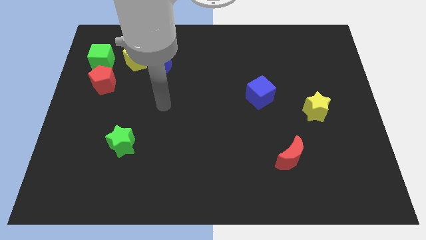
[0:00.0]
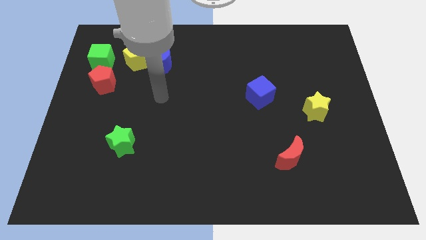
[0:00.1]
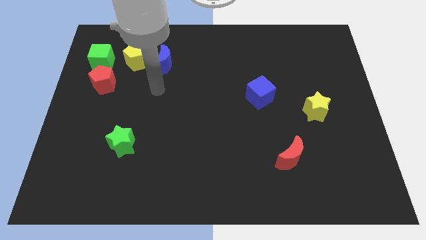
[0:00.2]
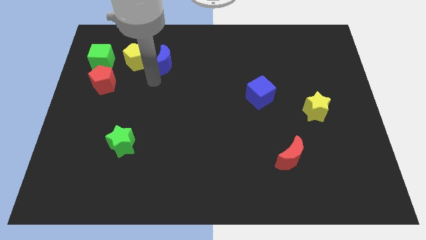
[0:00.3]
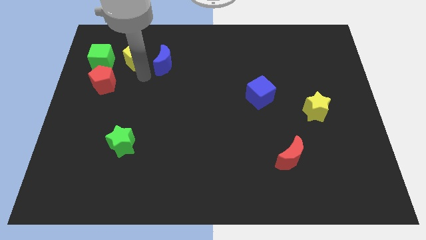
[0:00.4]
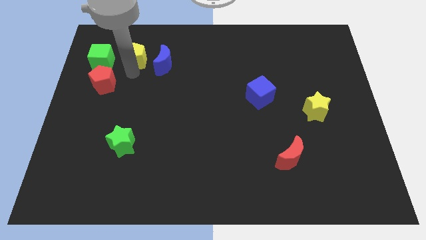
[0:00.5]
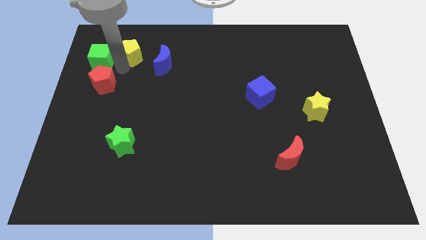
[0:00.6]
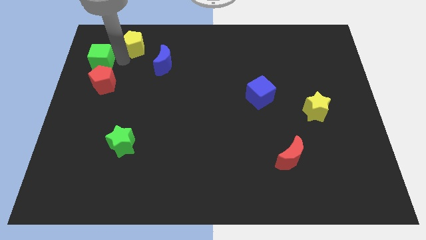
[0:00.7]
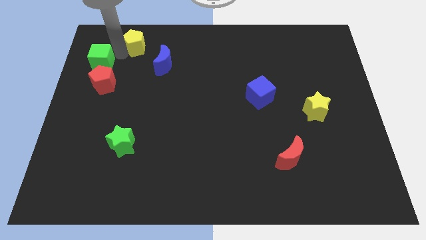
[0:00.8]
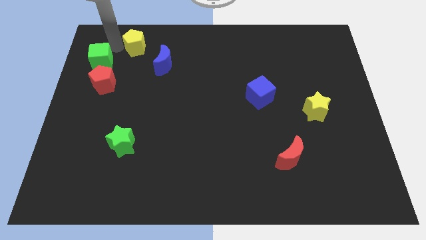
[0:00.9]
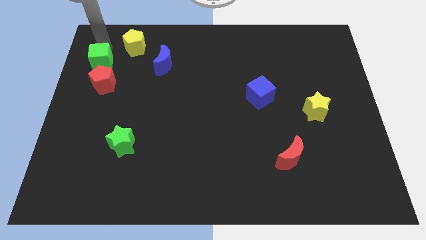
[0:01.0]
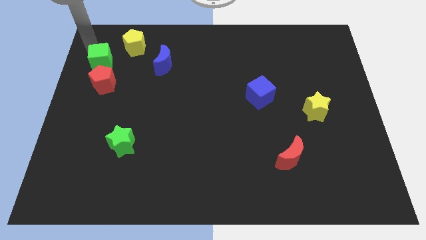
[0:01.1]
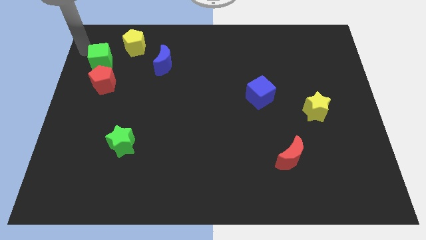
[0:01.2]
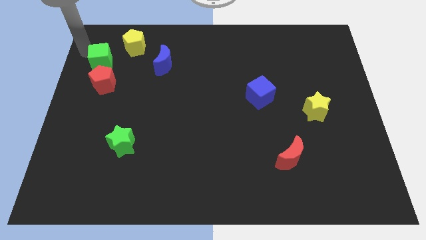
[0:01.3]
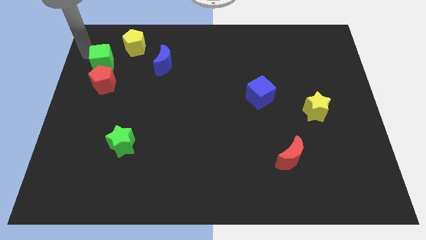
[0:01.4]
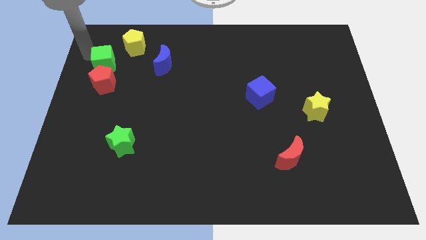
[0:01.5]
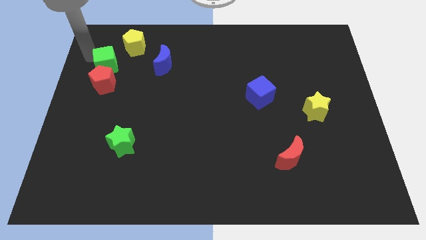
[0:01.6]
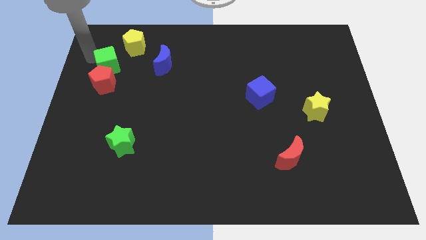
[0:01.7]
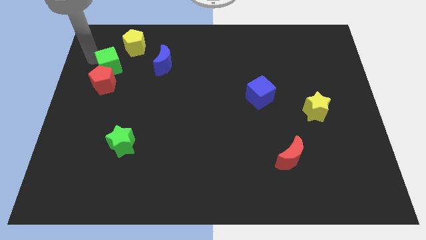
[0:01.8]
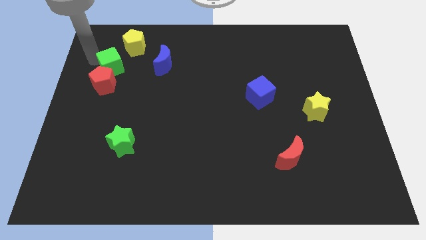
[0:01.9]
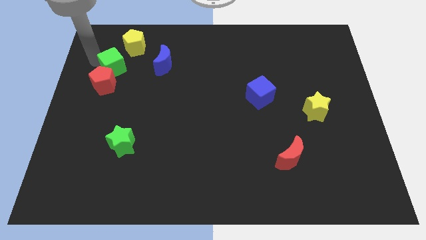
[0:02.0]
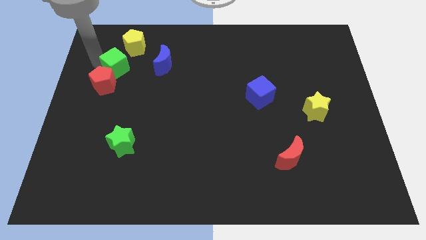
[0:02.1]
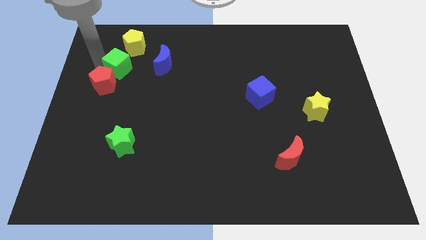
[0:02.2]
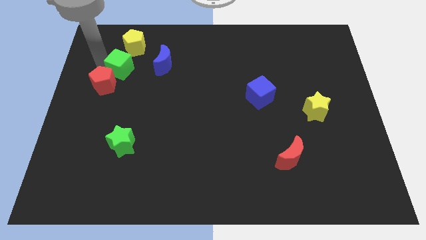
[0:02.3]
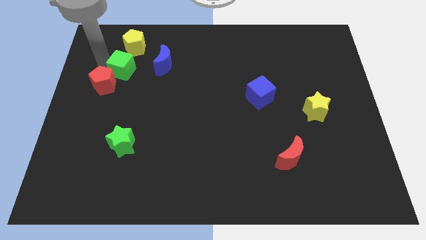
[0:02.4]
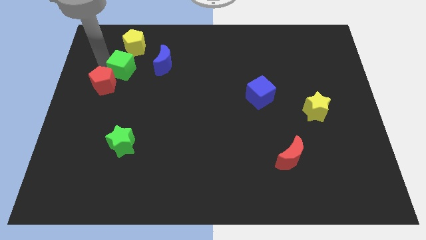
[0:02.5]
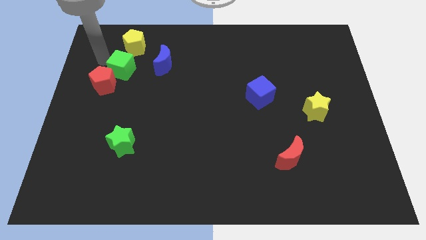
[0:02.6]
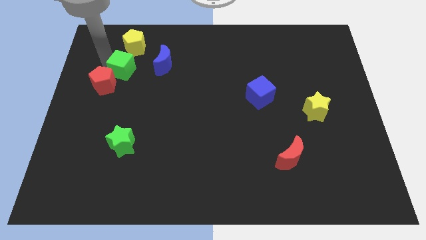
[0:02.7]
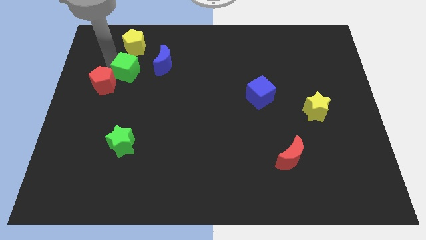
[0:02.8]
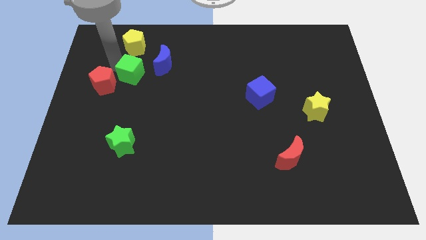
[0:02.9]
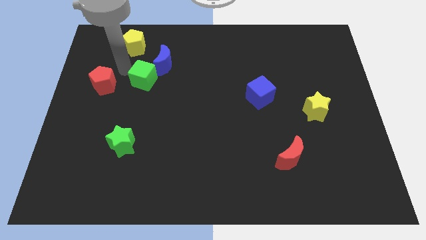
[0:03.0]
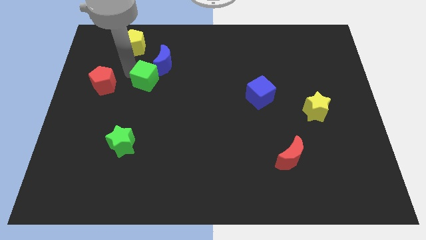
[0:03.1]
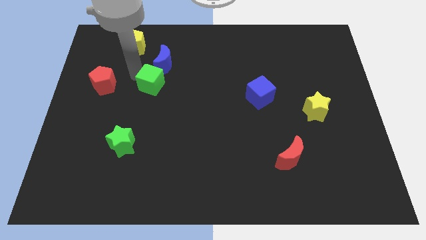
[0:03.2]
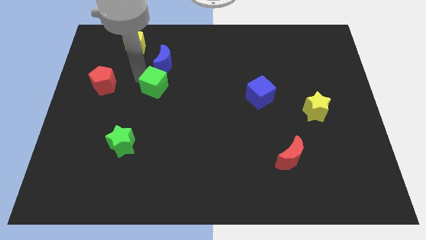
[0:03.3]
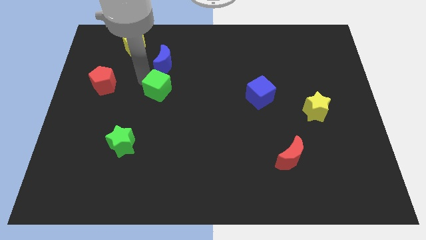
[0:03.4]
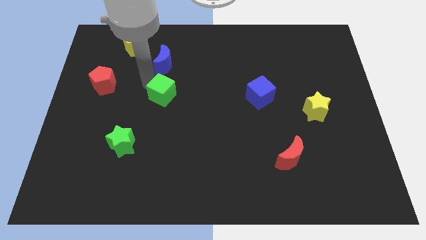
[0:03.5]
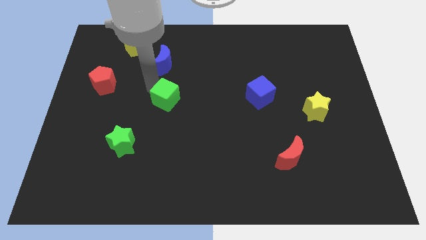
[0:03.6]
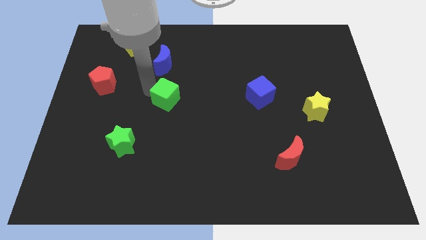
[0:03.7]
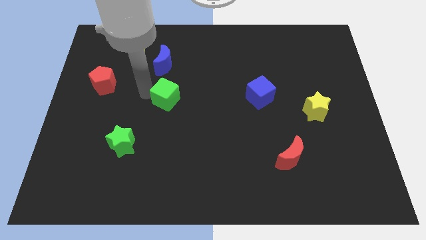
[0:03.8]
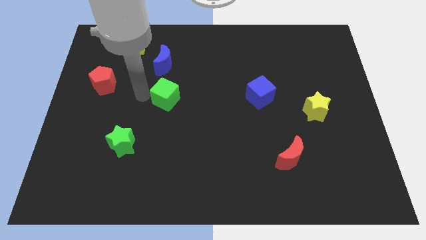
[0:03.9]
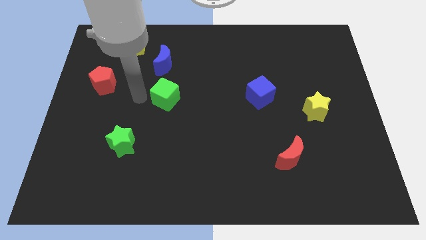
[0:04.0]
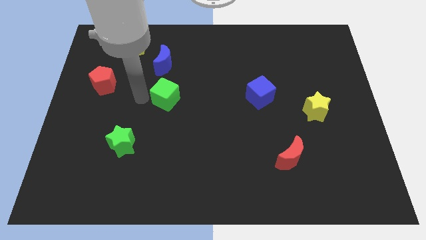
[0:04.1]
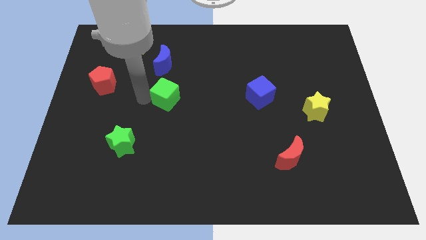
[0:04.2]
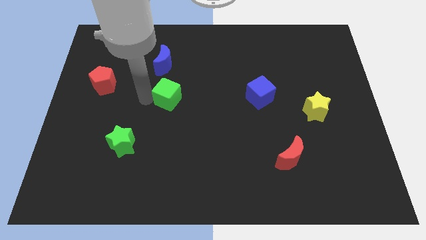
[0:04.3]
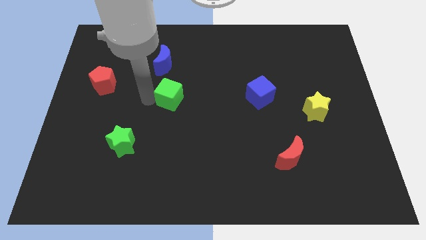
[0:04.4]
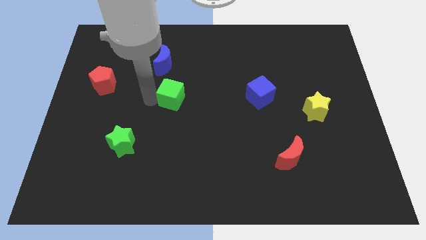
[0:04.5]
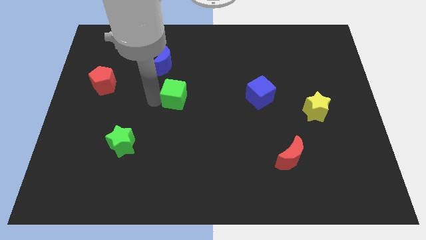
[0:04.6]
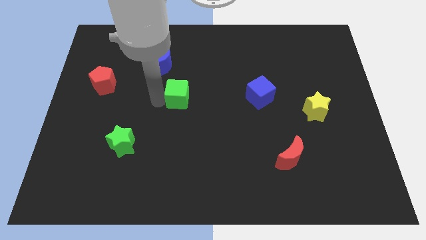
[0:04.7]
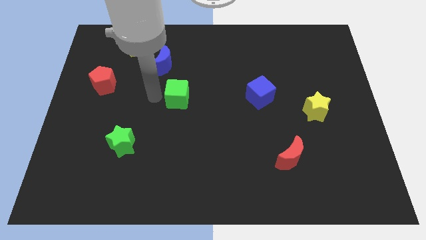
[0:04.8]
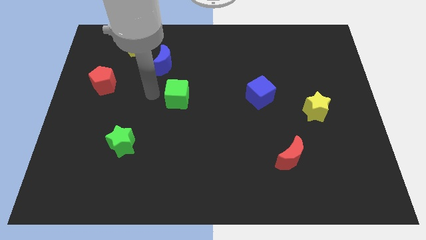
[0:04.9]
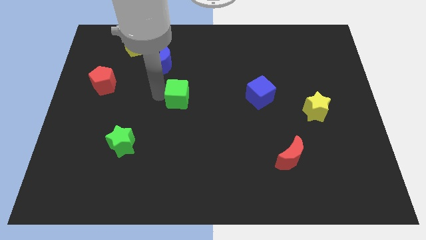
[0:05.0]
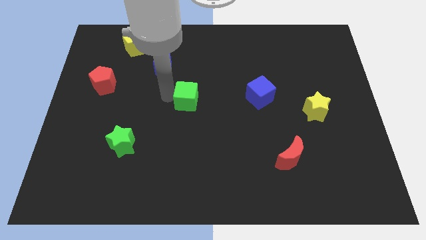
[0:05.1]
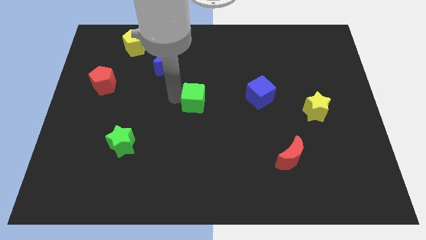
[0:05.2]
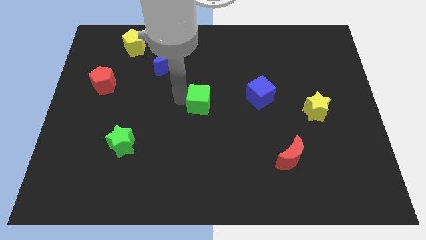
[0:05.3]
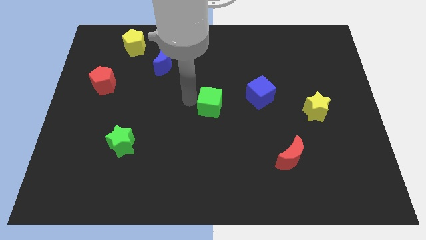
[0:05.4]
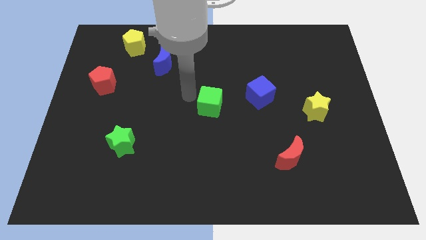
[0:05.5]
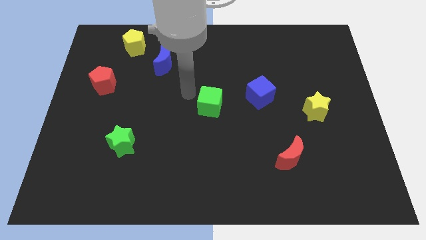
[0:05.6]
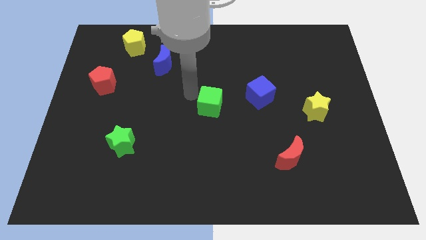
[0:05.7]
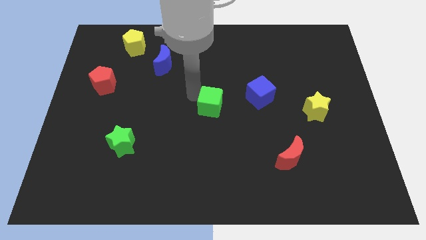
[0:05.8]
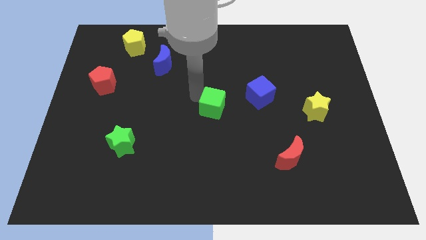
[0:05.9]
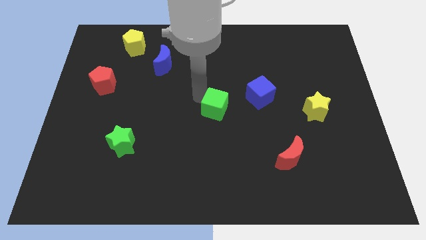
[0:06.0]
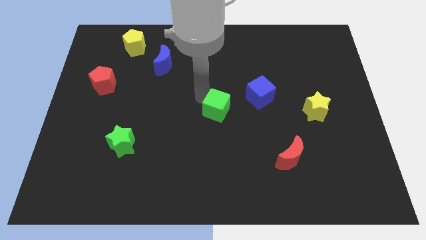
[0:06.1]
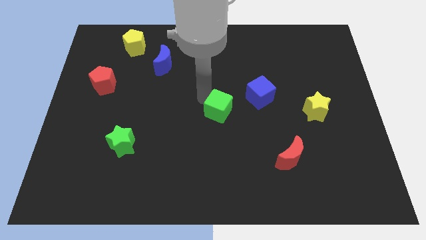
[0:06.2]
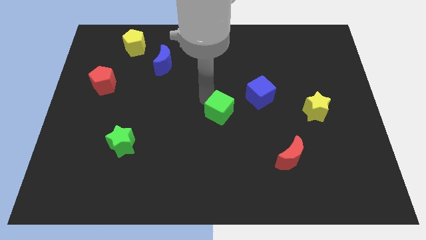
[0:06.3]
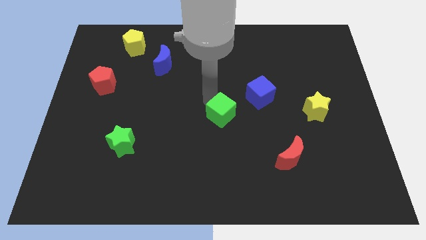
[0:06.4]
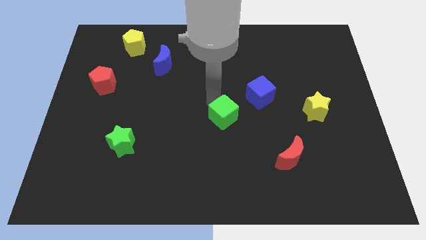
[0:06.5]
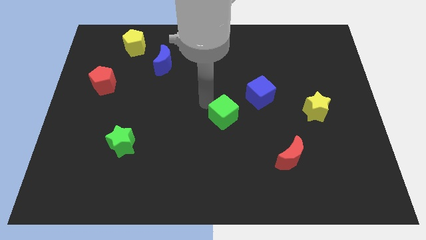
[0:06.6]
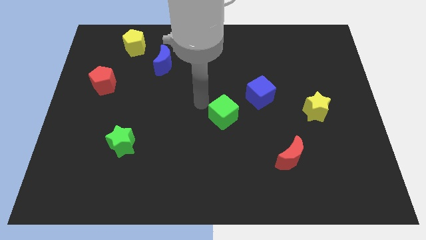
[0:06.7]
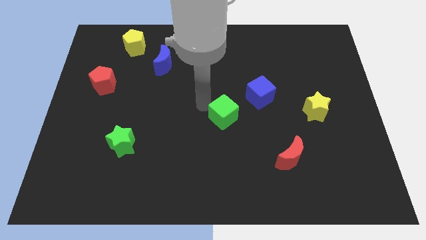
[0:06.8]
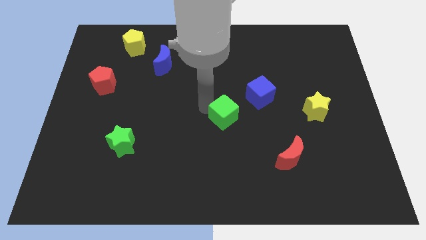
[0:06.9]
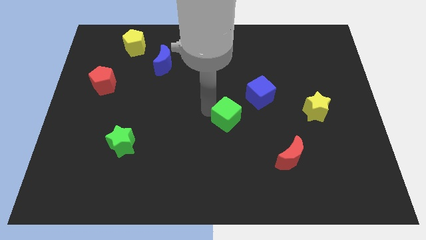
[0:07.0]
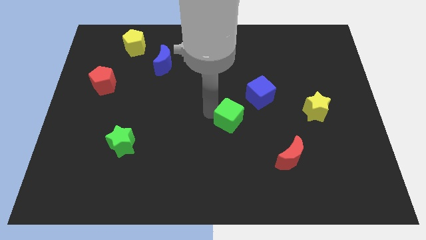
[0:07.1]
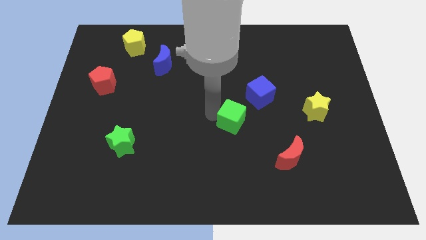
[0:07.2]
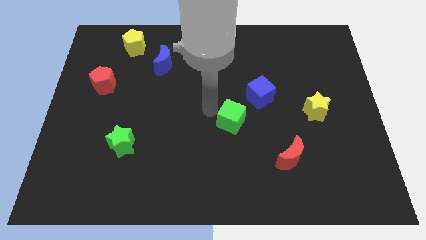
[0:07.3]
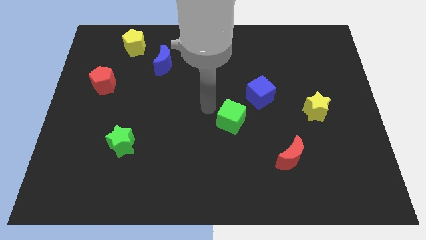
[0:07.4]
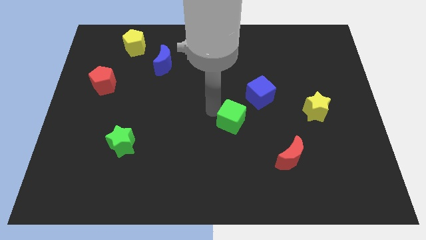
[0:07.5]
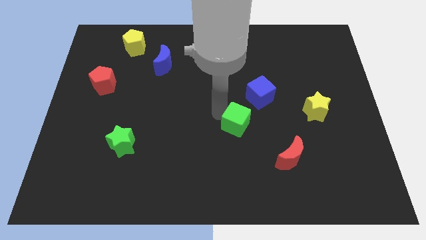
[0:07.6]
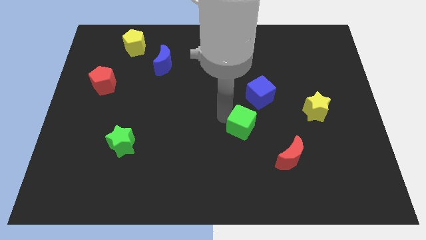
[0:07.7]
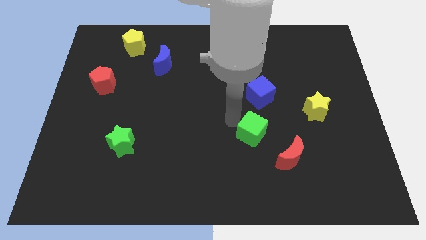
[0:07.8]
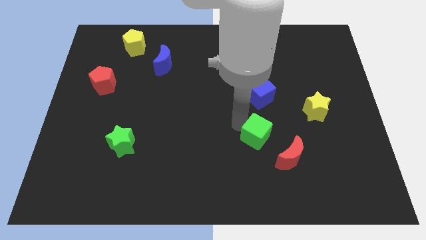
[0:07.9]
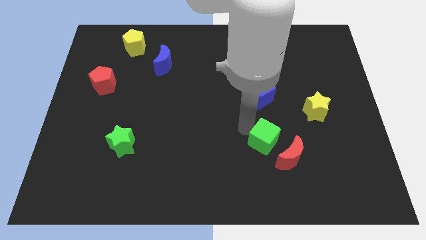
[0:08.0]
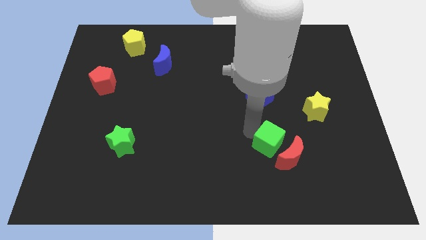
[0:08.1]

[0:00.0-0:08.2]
move the green cube close to the red moon

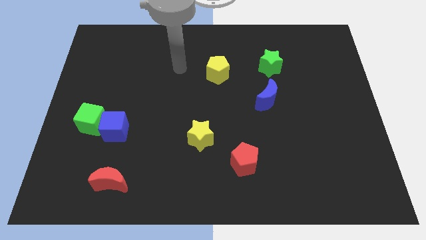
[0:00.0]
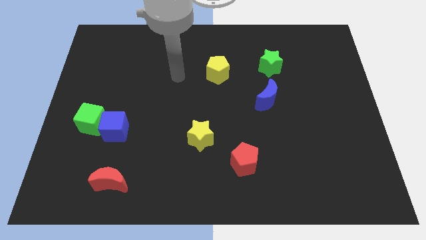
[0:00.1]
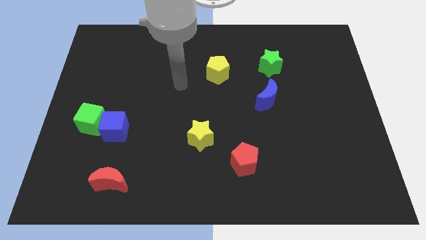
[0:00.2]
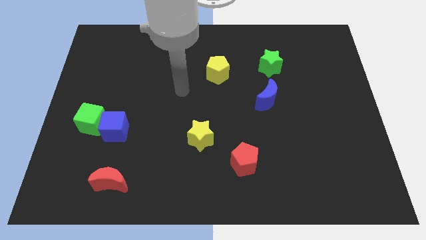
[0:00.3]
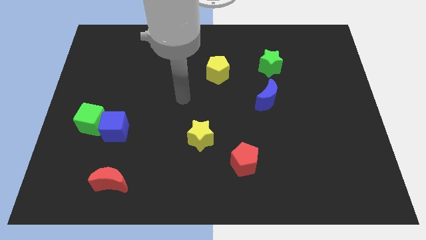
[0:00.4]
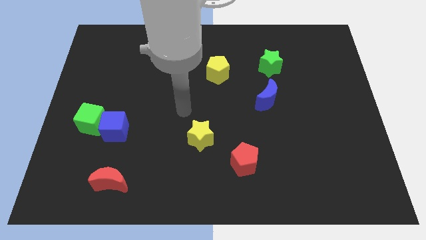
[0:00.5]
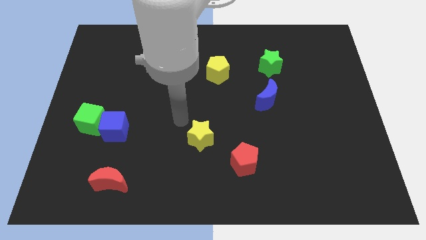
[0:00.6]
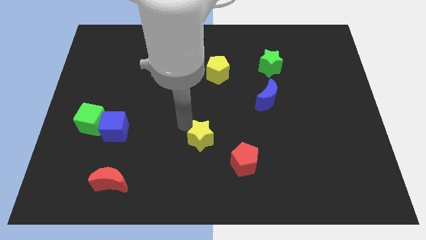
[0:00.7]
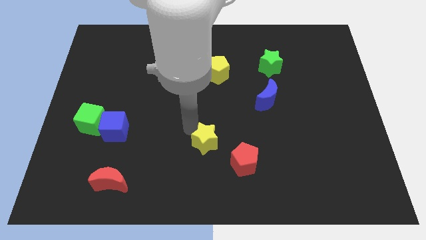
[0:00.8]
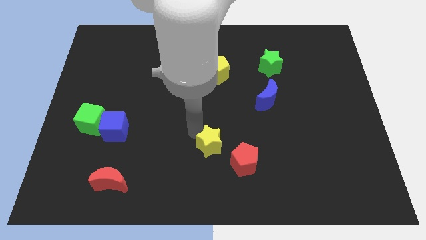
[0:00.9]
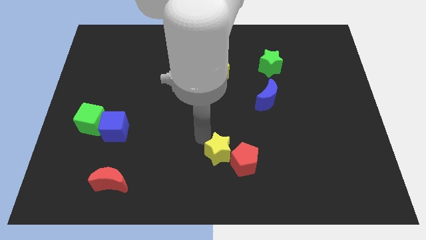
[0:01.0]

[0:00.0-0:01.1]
push the yellow star to the red pentagon
